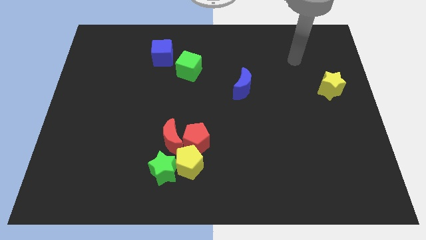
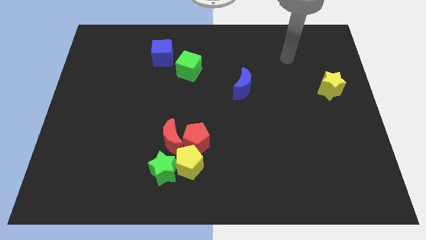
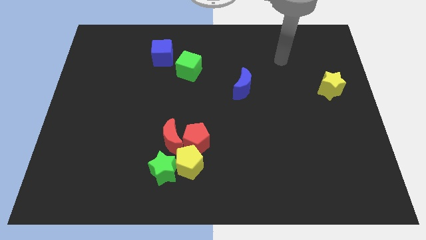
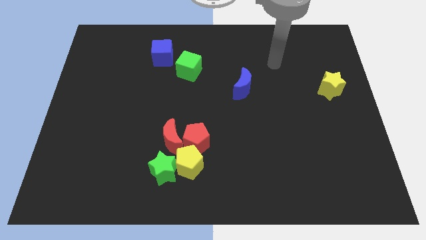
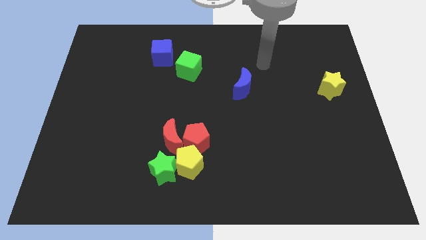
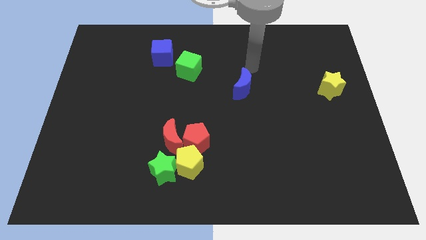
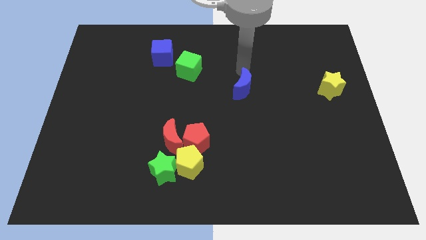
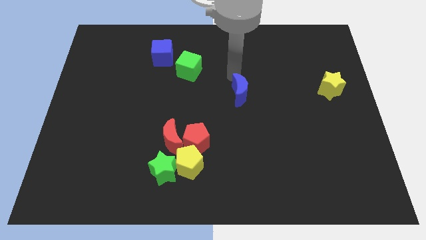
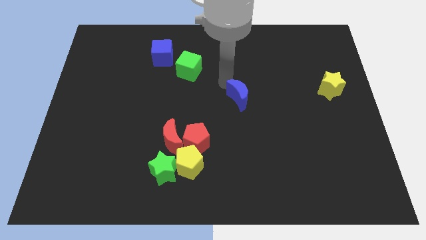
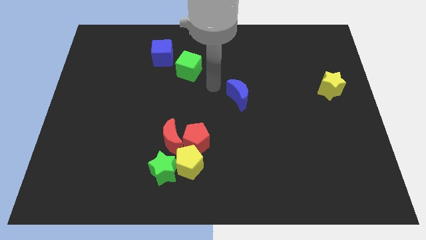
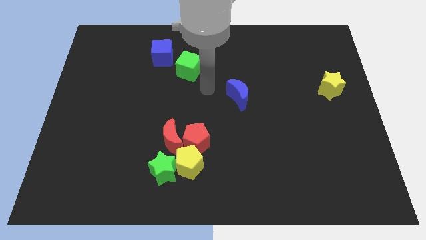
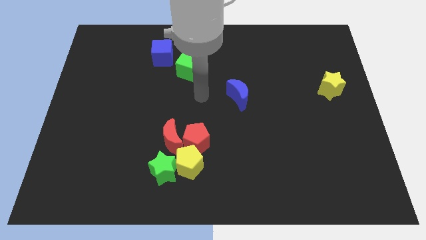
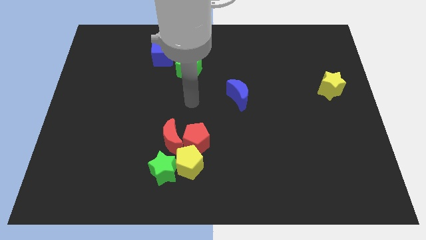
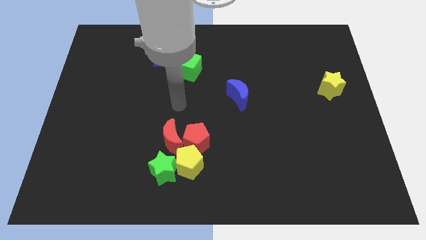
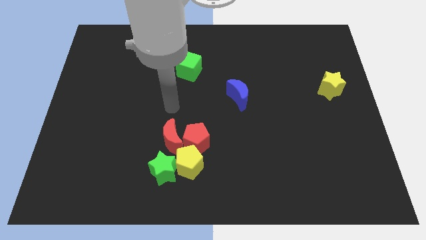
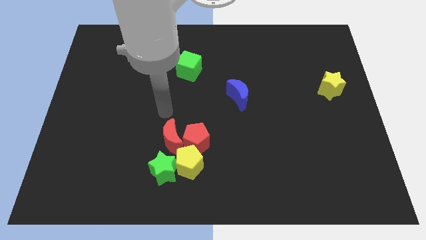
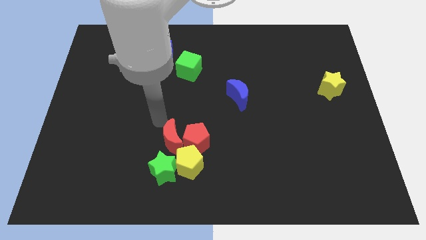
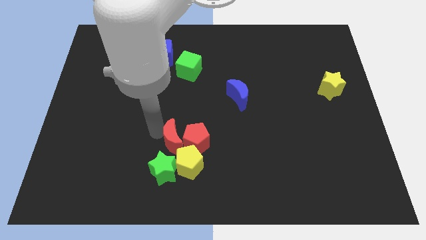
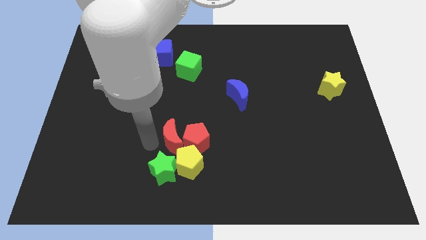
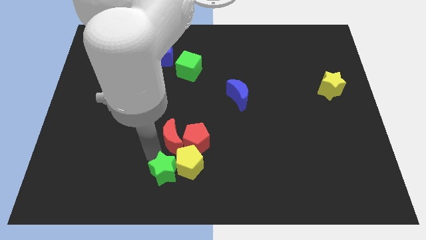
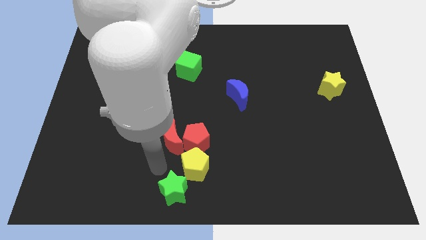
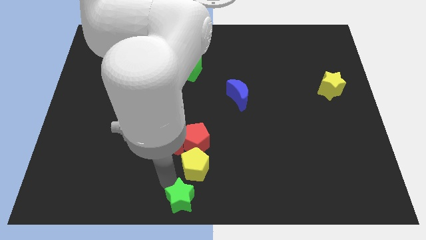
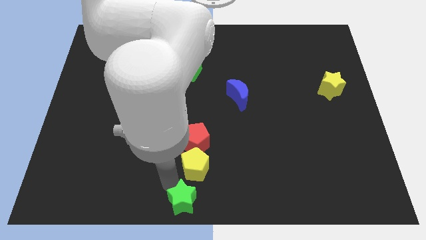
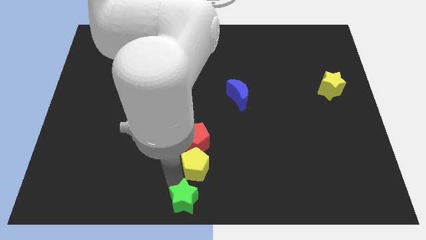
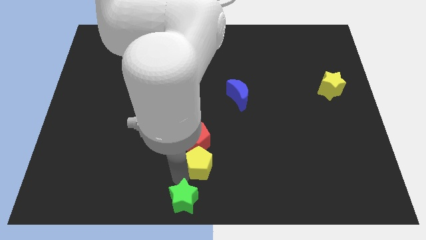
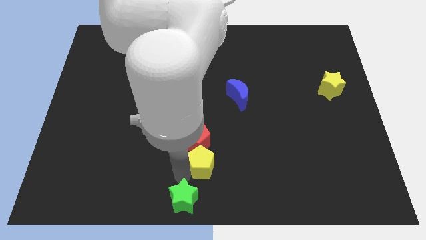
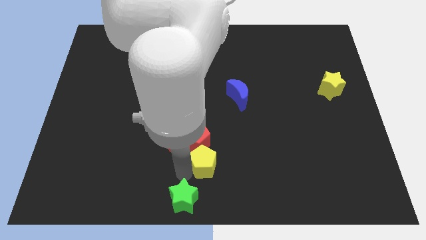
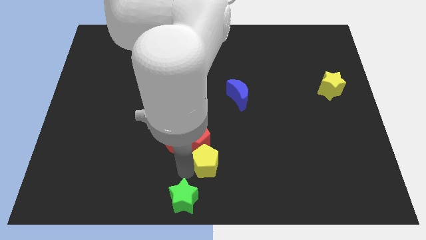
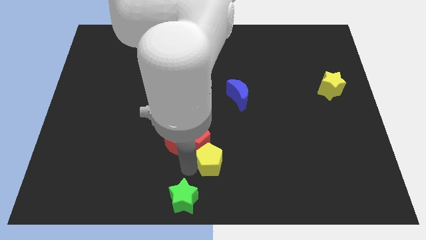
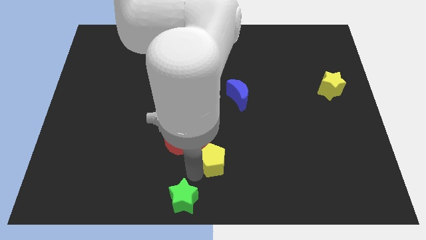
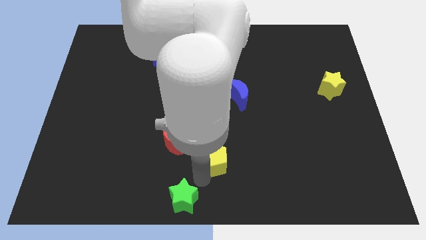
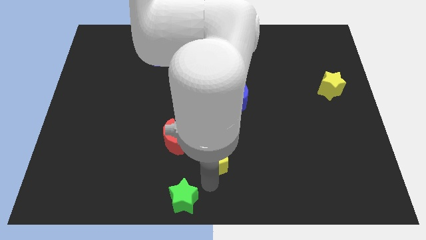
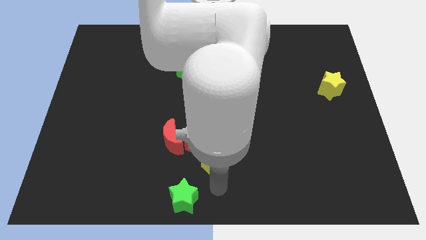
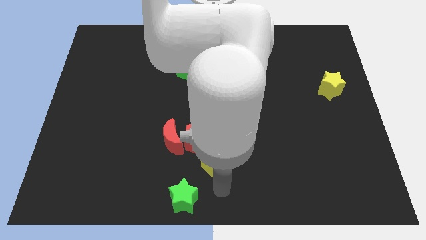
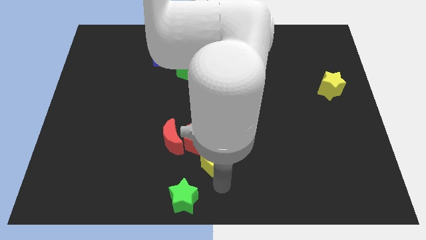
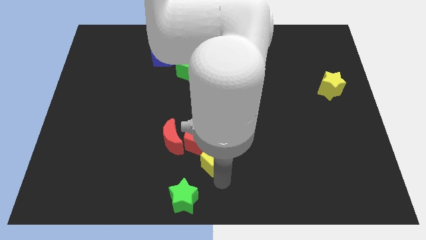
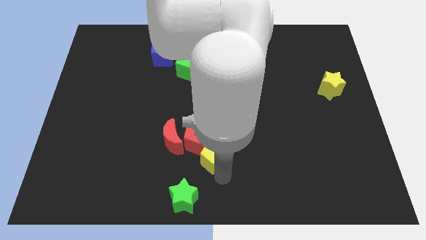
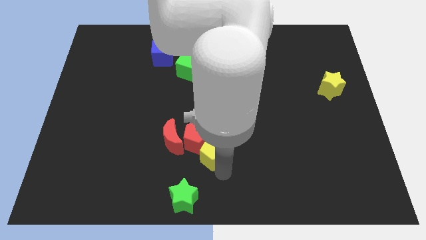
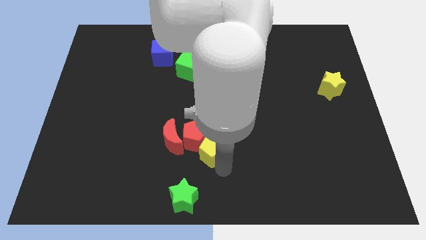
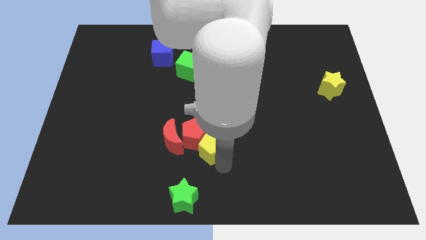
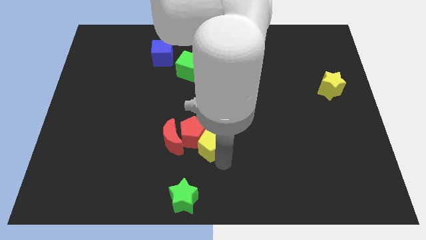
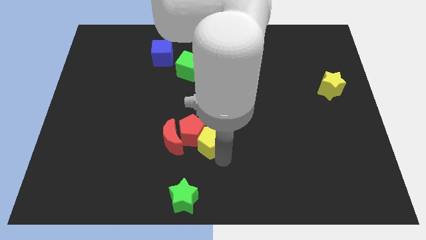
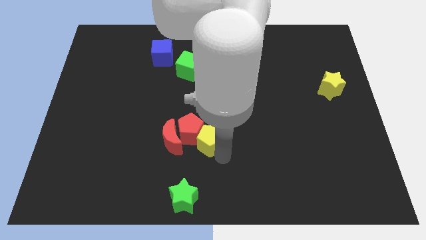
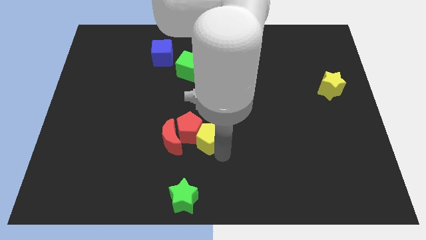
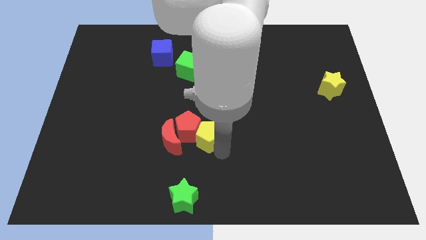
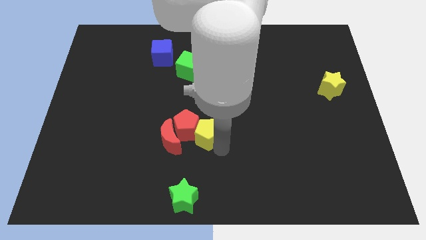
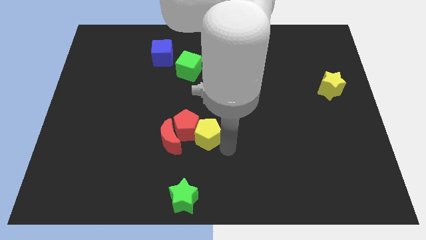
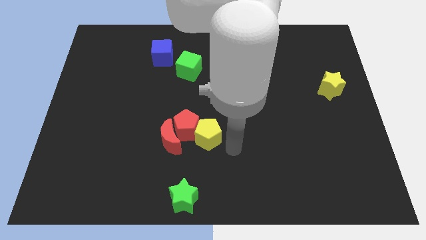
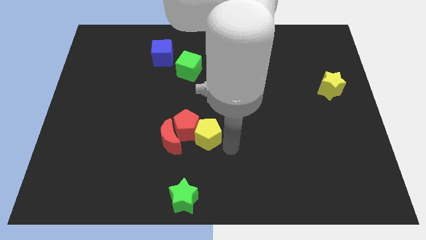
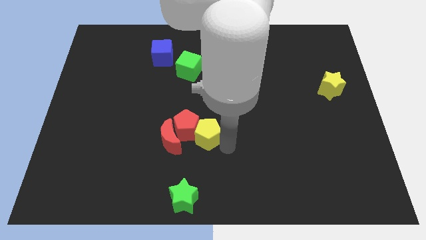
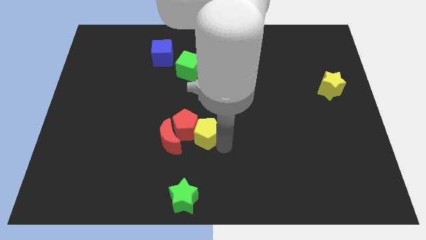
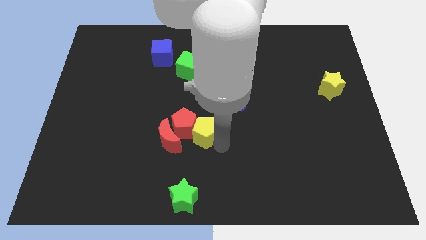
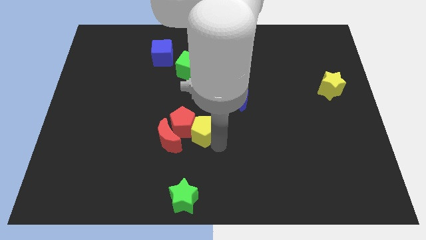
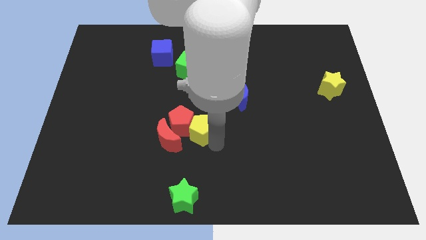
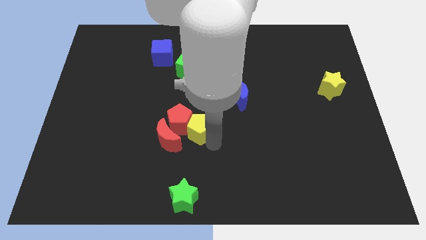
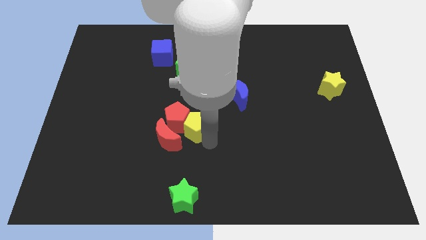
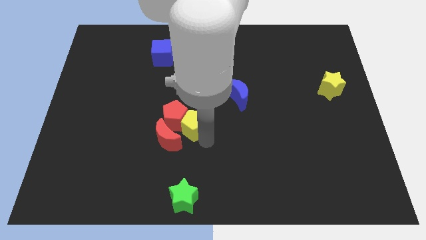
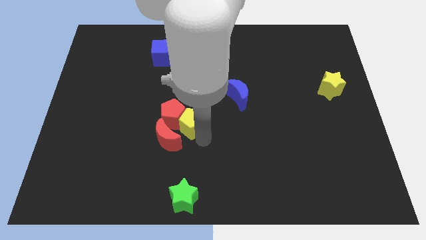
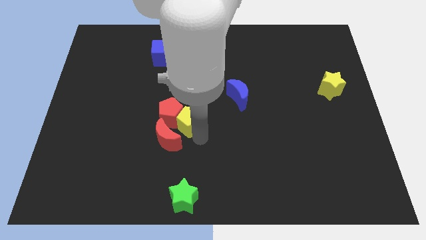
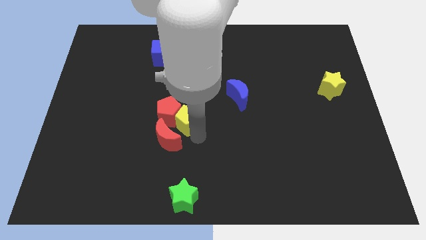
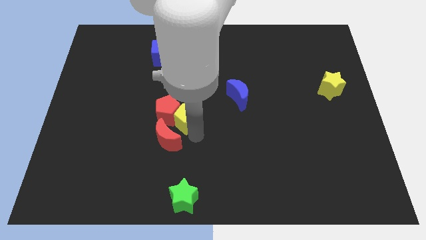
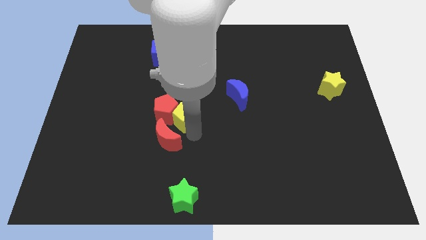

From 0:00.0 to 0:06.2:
move the yellow pentagon diagonally upwards and to the left a bit

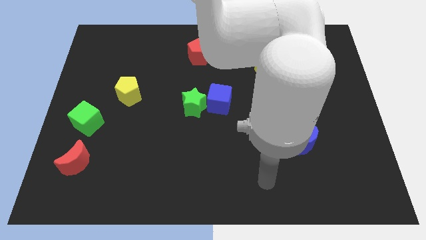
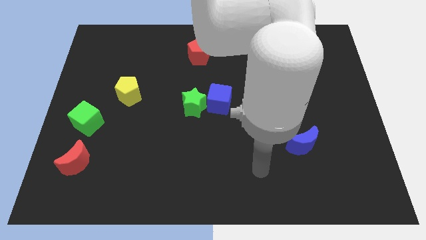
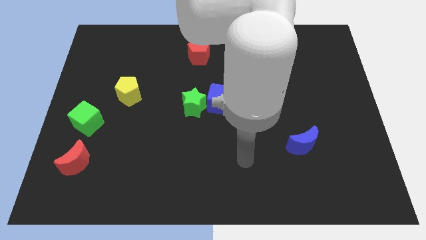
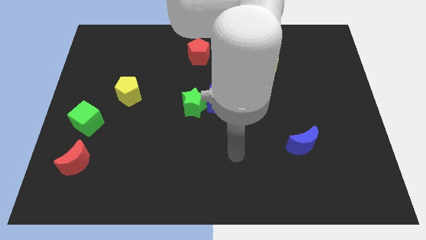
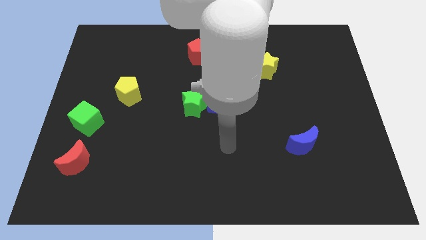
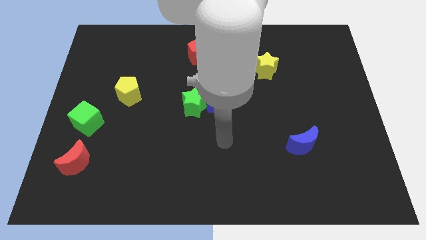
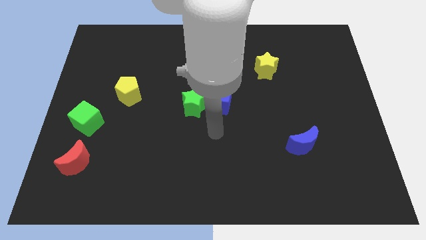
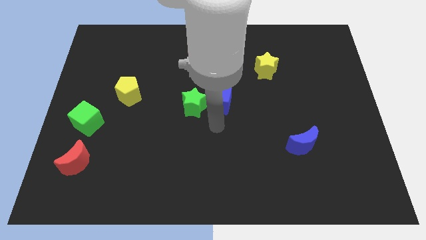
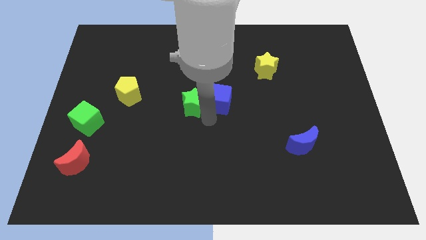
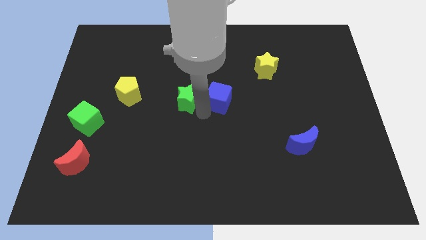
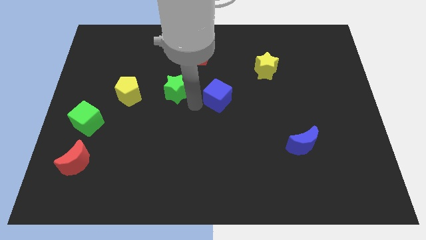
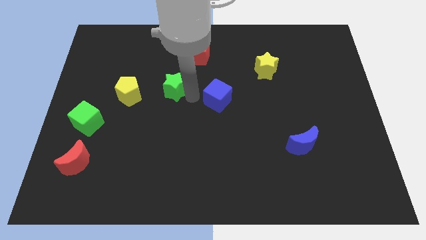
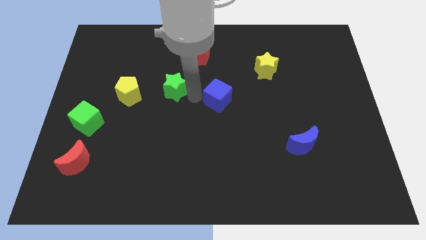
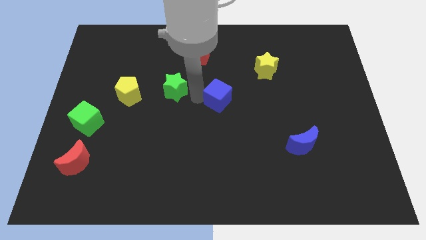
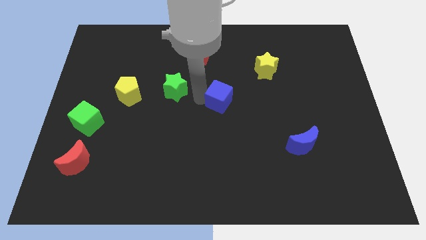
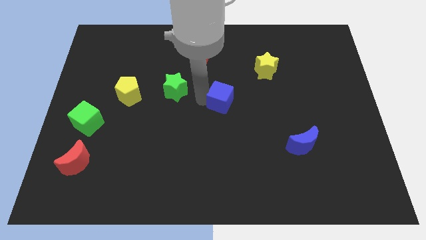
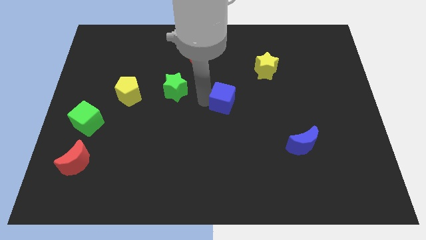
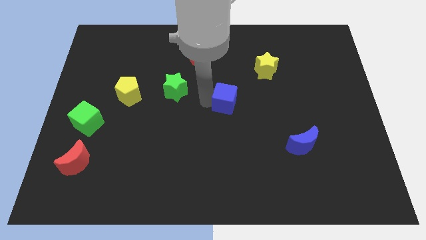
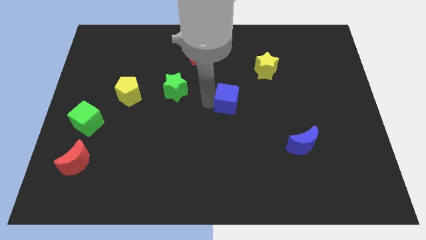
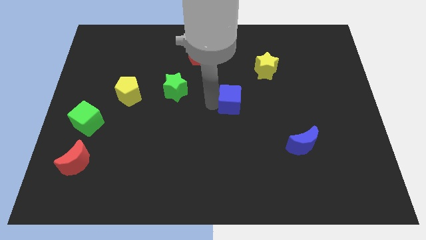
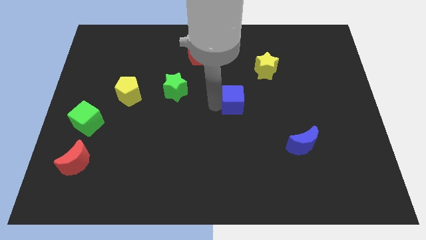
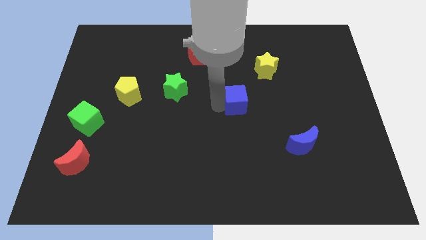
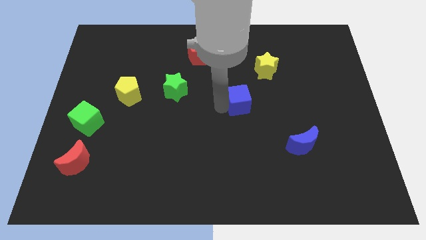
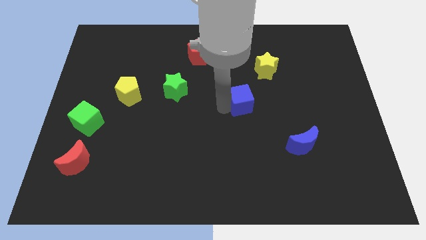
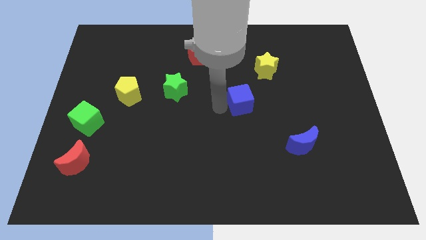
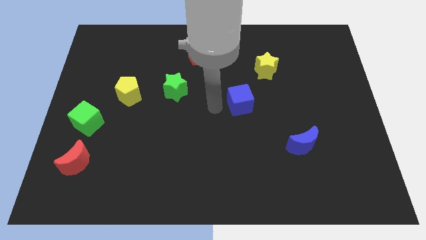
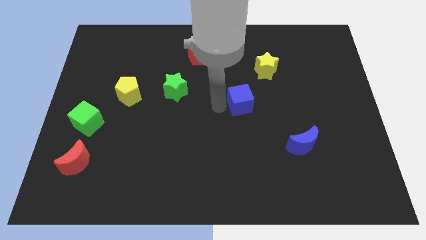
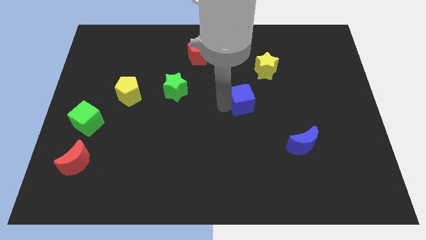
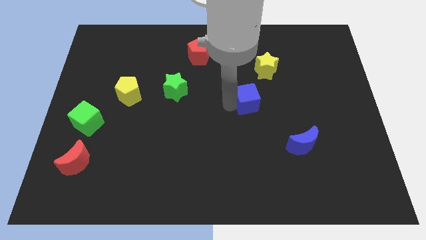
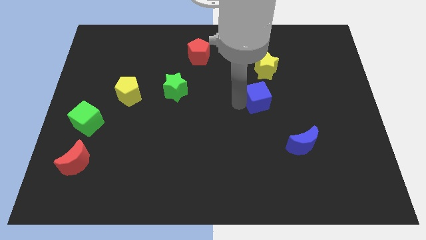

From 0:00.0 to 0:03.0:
slide the blue cube to the right a bit
